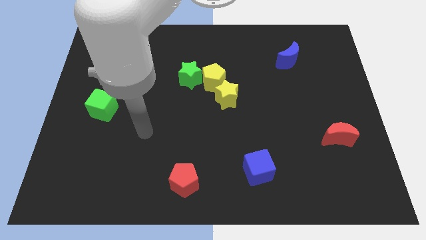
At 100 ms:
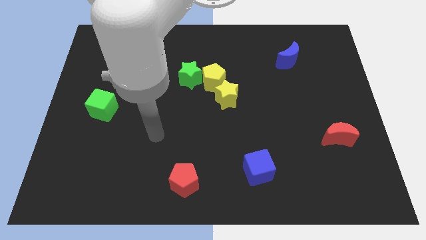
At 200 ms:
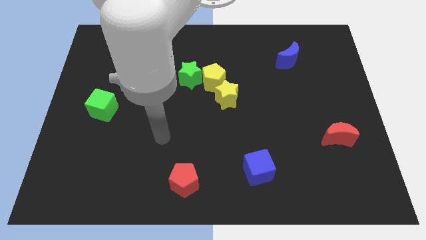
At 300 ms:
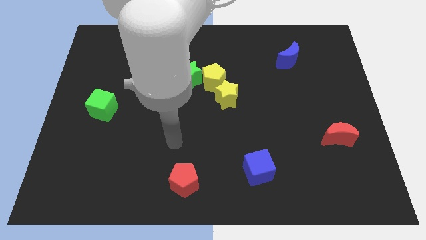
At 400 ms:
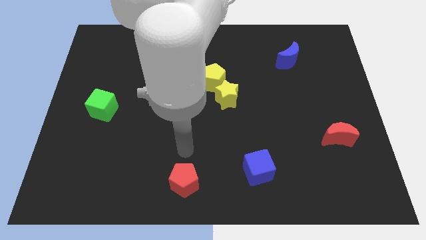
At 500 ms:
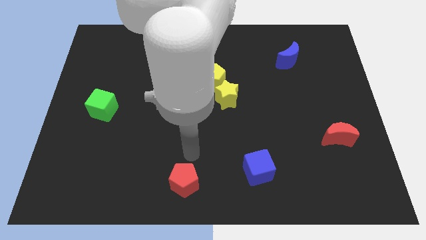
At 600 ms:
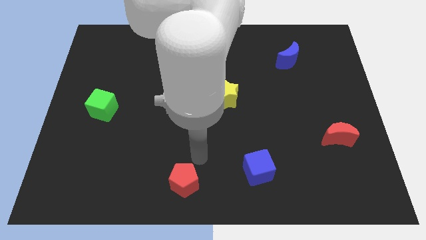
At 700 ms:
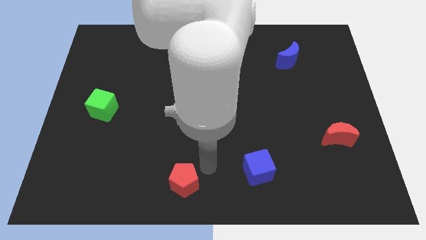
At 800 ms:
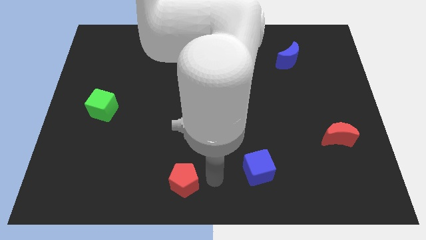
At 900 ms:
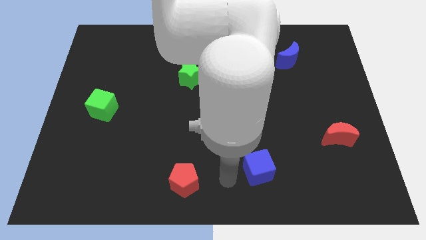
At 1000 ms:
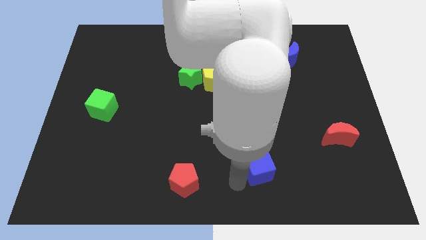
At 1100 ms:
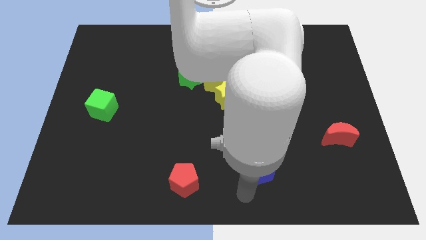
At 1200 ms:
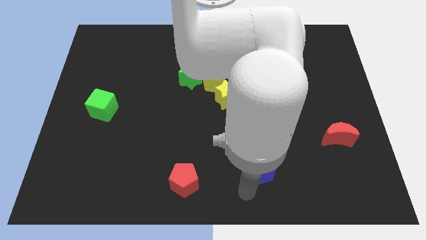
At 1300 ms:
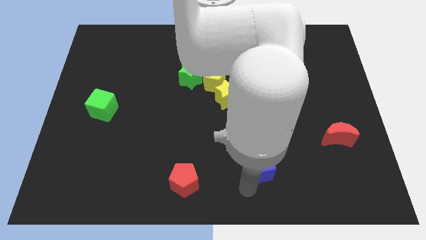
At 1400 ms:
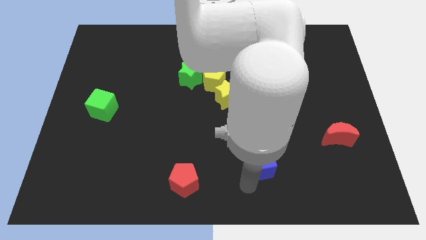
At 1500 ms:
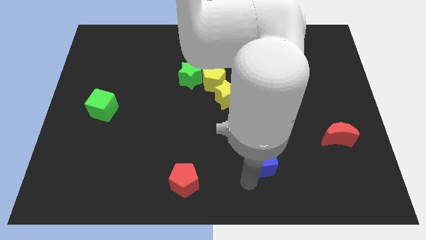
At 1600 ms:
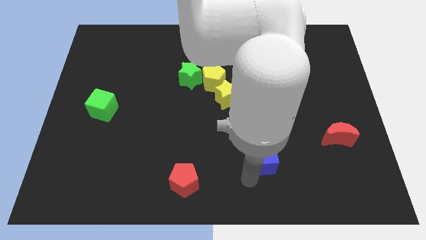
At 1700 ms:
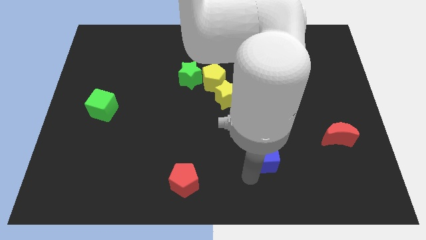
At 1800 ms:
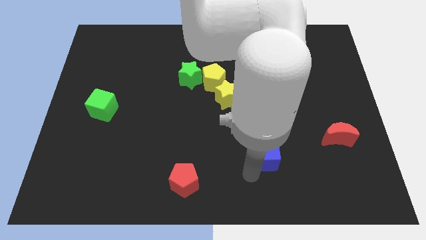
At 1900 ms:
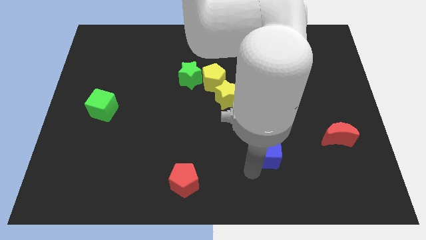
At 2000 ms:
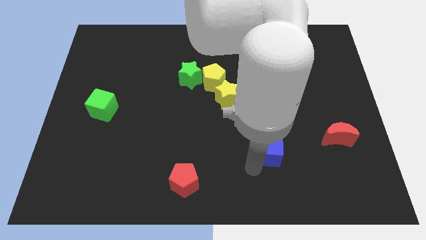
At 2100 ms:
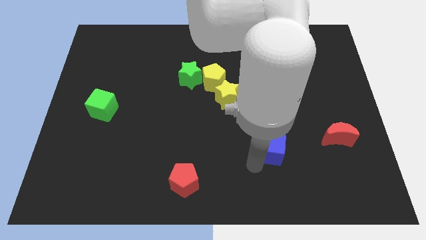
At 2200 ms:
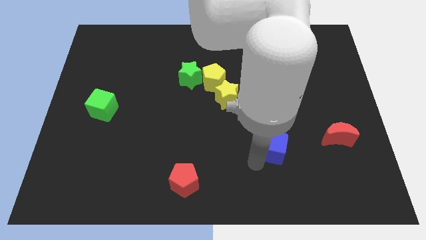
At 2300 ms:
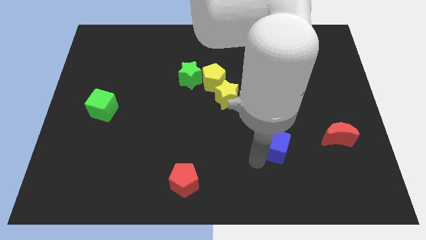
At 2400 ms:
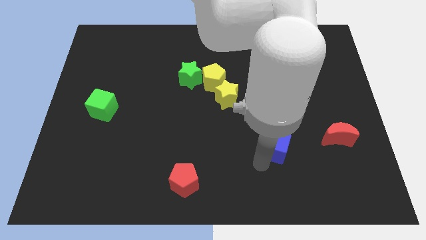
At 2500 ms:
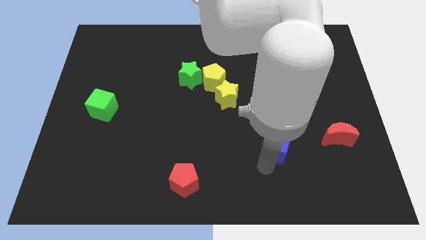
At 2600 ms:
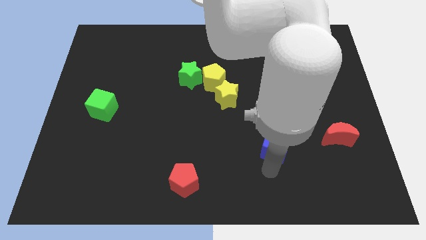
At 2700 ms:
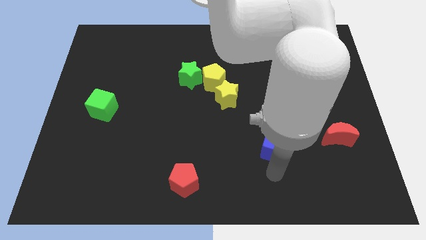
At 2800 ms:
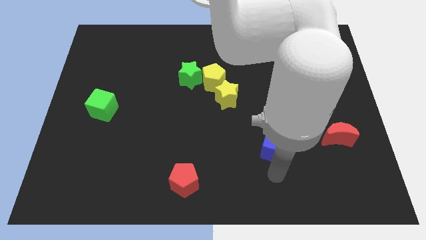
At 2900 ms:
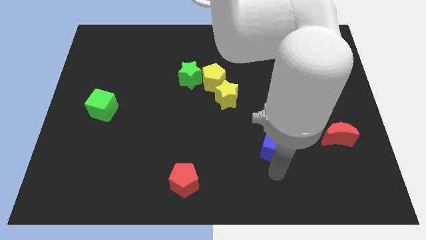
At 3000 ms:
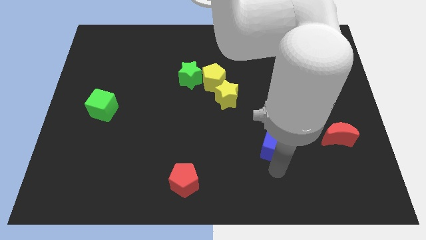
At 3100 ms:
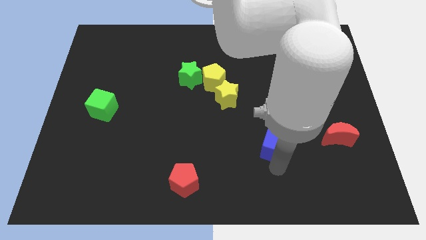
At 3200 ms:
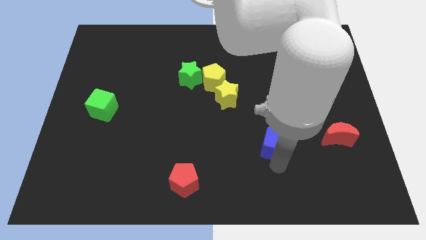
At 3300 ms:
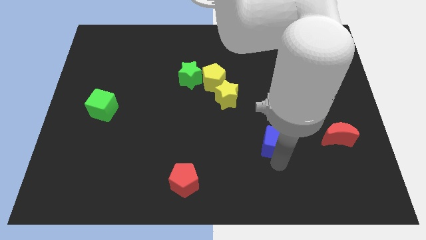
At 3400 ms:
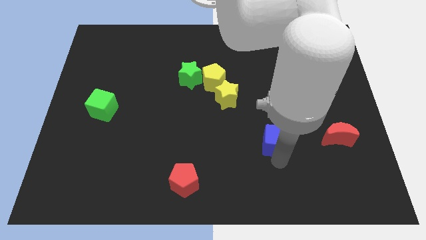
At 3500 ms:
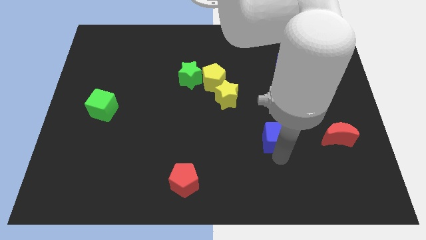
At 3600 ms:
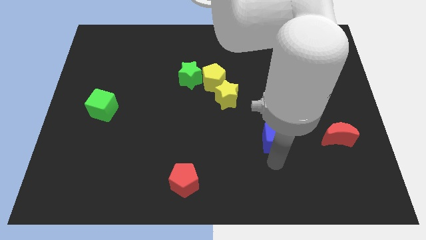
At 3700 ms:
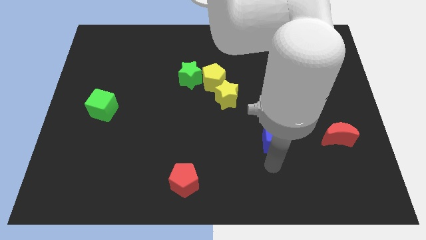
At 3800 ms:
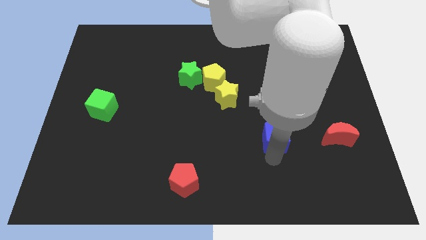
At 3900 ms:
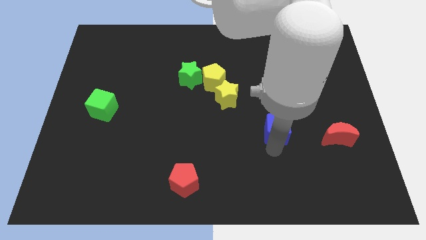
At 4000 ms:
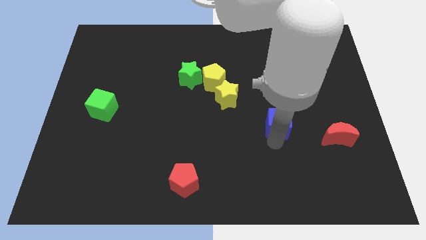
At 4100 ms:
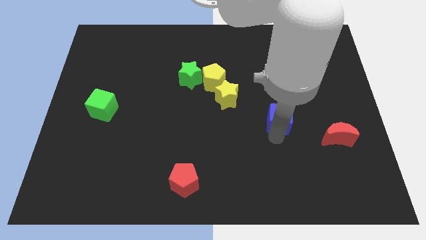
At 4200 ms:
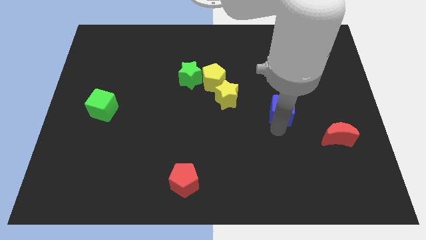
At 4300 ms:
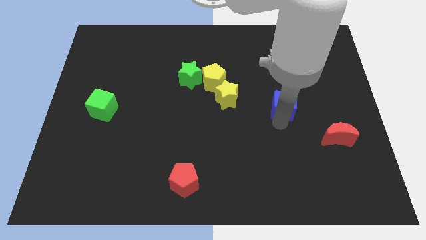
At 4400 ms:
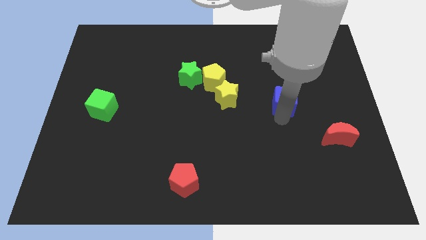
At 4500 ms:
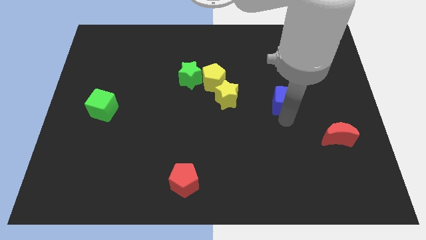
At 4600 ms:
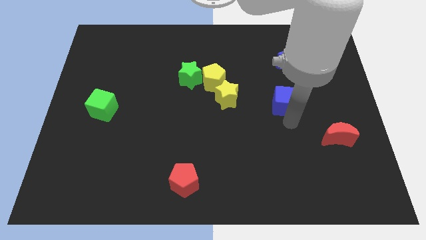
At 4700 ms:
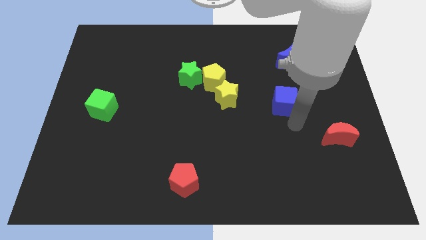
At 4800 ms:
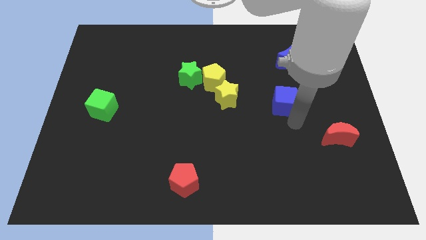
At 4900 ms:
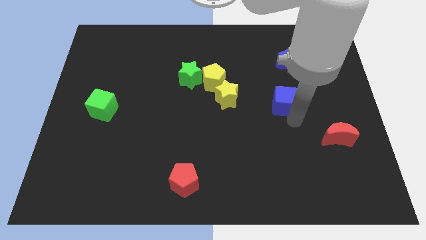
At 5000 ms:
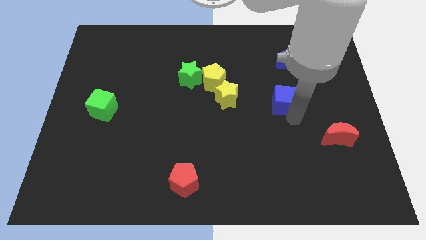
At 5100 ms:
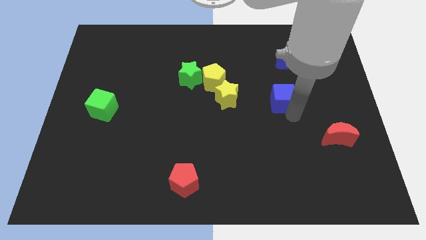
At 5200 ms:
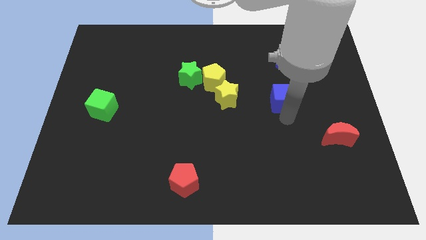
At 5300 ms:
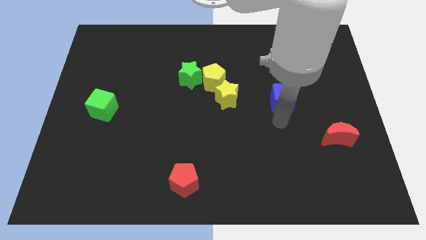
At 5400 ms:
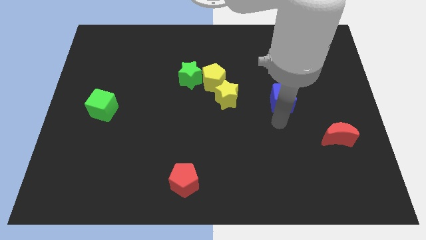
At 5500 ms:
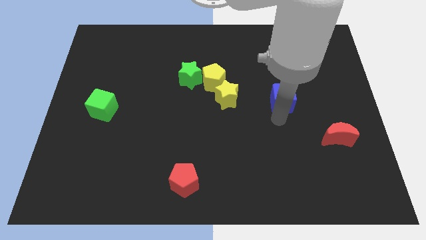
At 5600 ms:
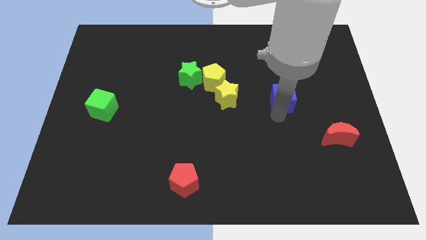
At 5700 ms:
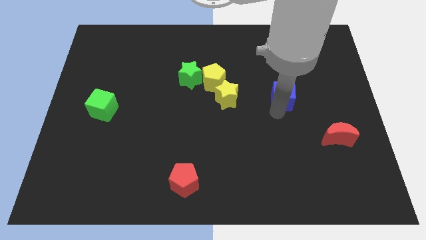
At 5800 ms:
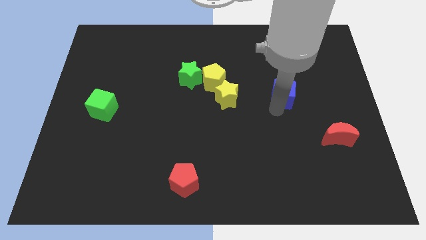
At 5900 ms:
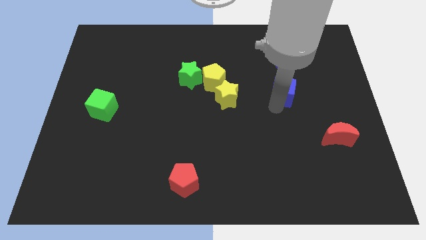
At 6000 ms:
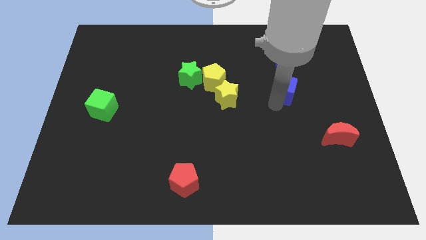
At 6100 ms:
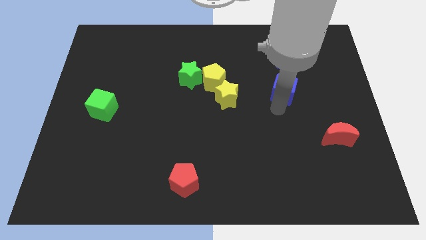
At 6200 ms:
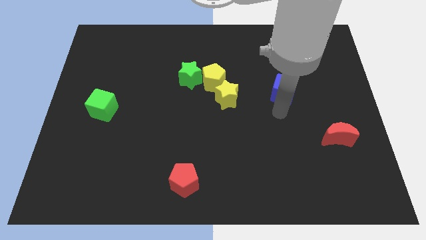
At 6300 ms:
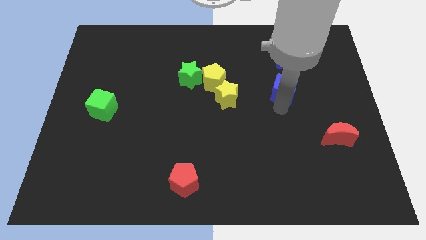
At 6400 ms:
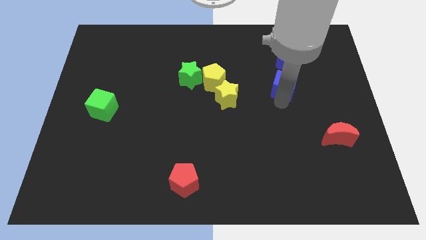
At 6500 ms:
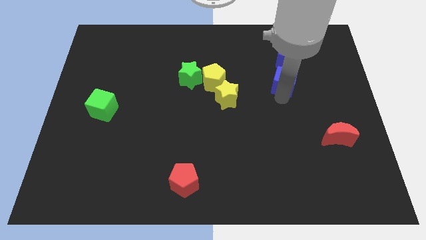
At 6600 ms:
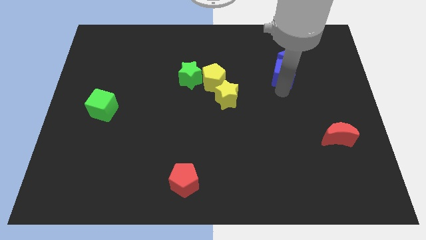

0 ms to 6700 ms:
push the blue cube next to the blue moon
